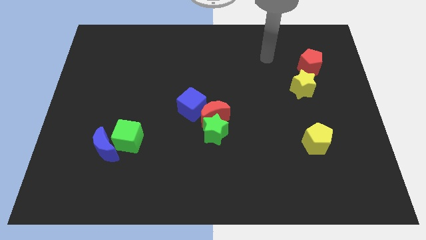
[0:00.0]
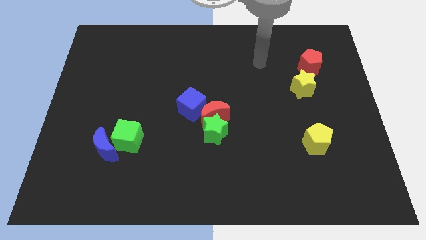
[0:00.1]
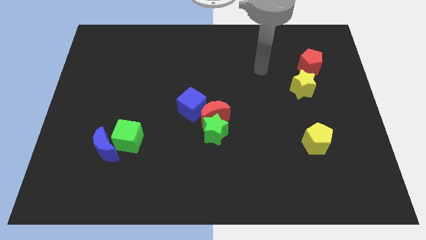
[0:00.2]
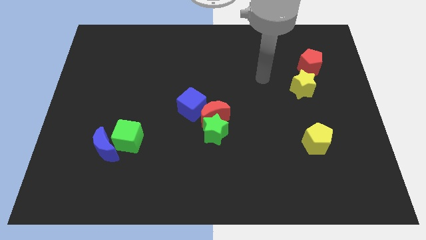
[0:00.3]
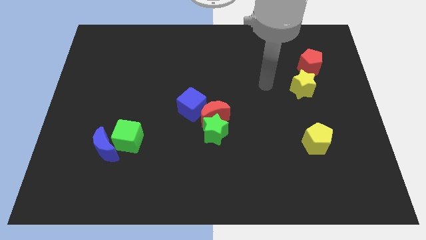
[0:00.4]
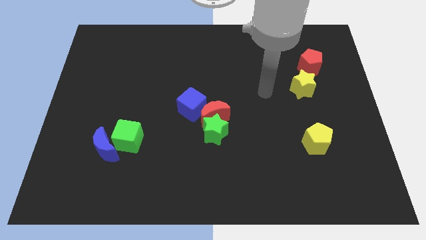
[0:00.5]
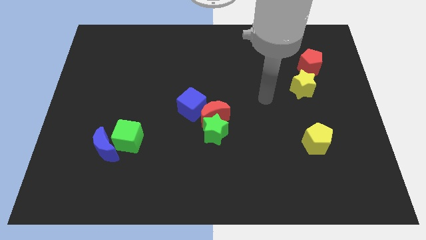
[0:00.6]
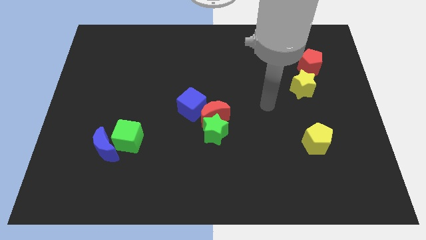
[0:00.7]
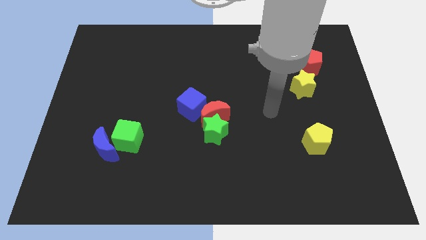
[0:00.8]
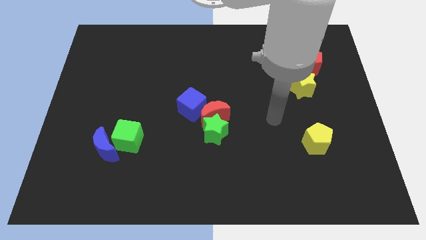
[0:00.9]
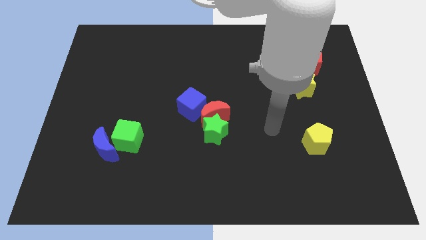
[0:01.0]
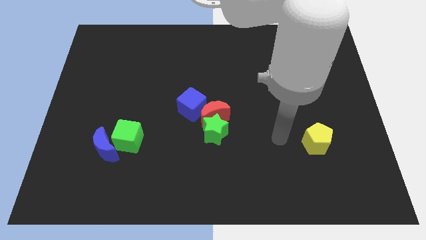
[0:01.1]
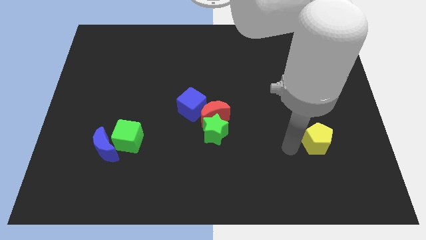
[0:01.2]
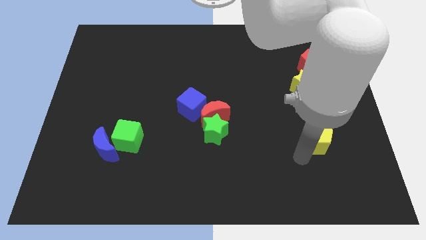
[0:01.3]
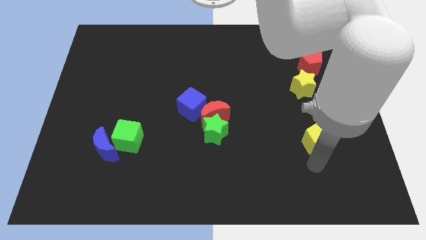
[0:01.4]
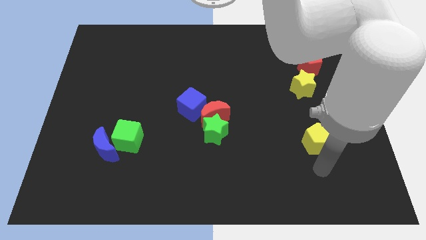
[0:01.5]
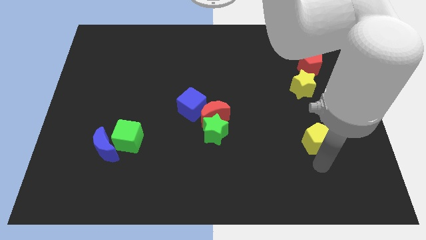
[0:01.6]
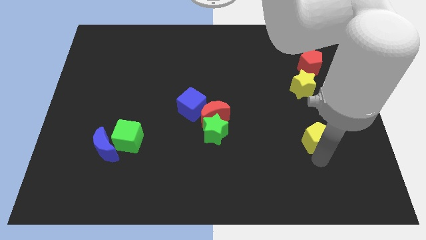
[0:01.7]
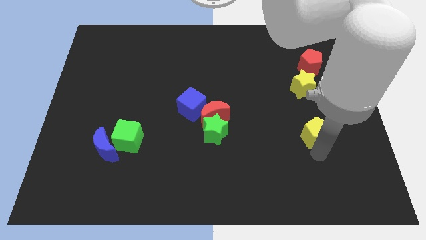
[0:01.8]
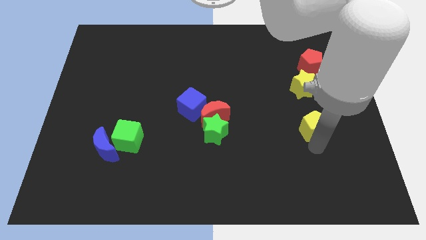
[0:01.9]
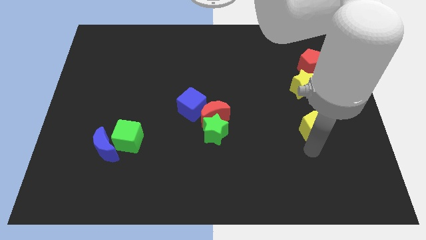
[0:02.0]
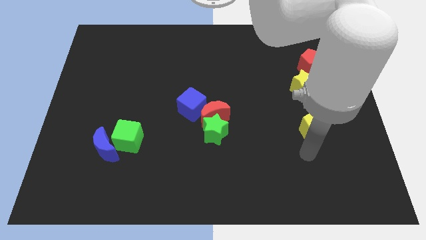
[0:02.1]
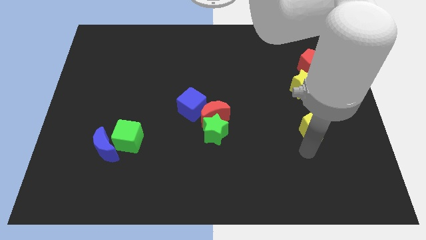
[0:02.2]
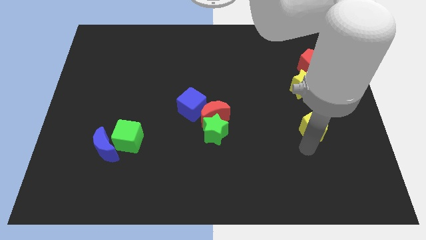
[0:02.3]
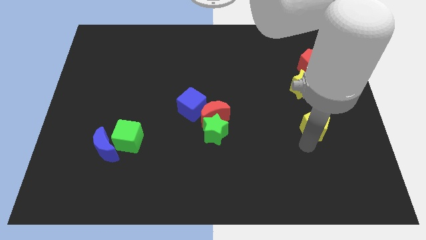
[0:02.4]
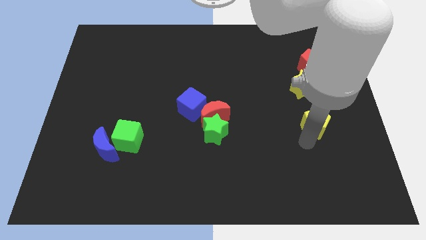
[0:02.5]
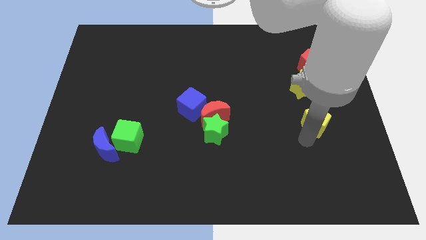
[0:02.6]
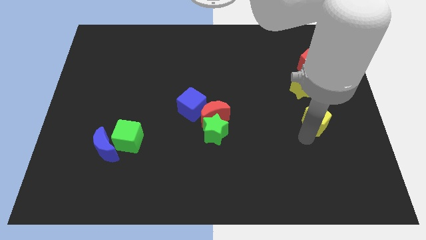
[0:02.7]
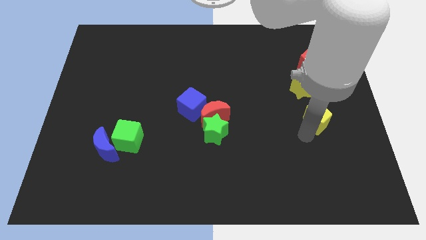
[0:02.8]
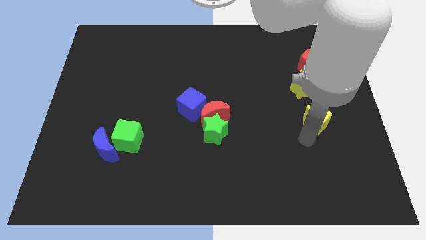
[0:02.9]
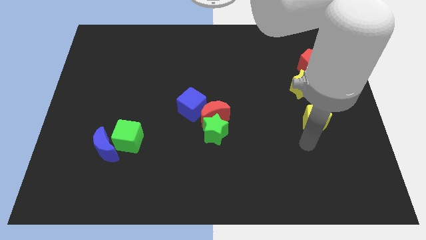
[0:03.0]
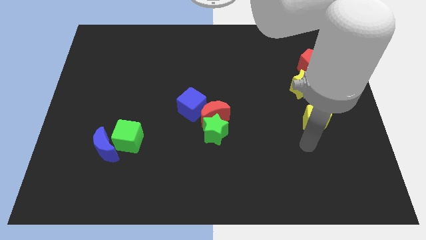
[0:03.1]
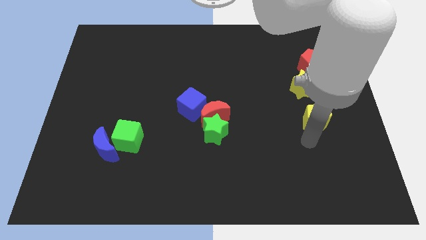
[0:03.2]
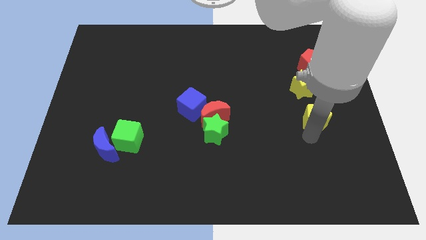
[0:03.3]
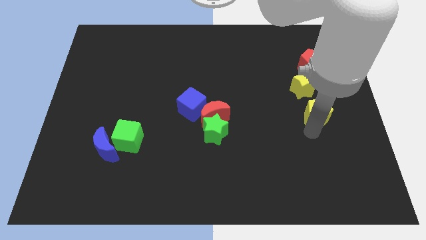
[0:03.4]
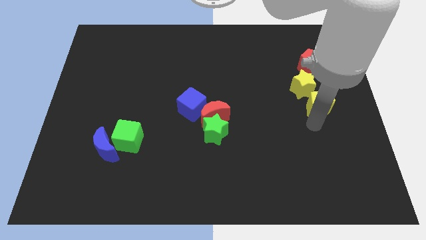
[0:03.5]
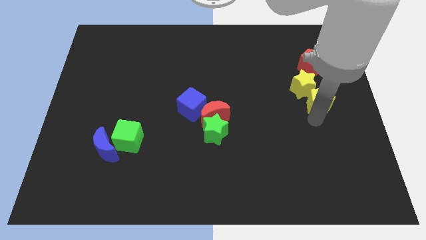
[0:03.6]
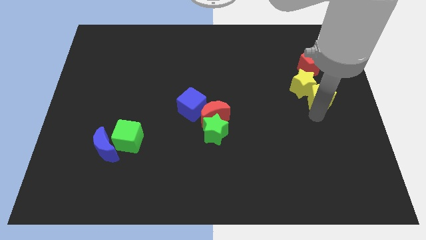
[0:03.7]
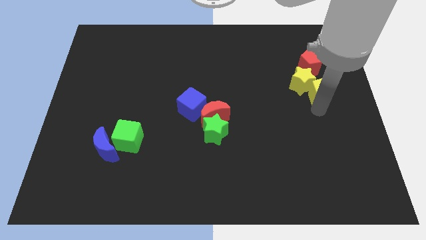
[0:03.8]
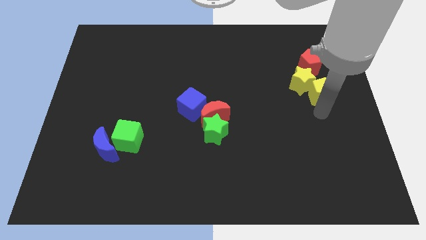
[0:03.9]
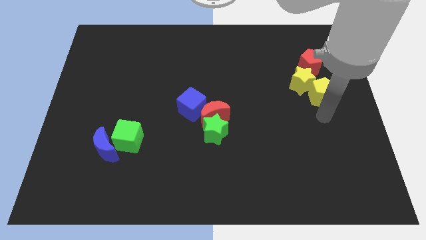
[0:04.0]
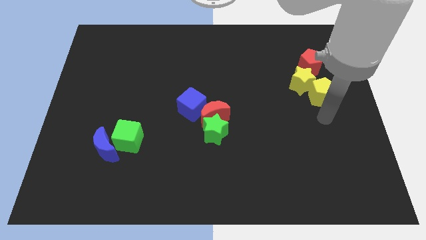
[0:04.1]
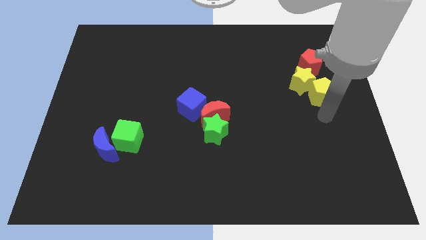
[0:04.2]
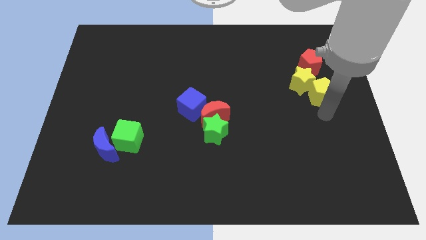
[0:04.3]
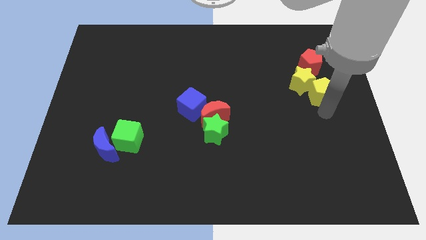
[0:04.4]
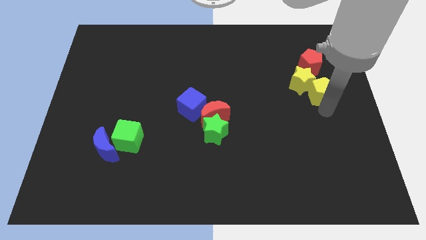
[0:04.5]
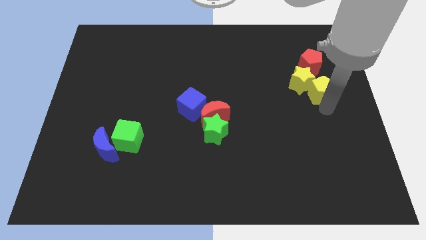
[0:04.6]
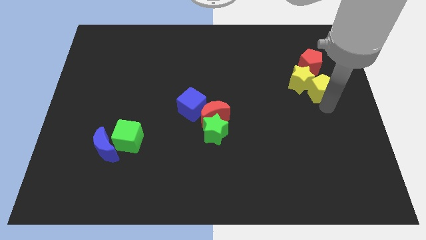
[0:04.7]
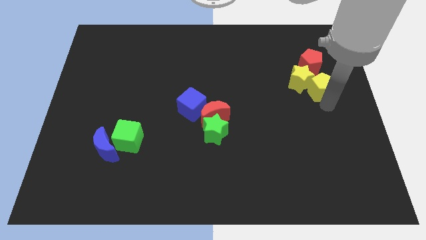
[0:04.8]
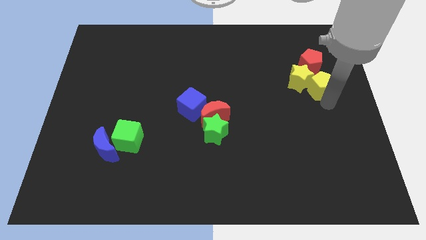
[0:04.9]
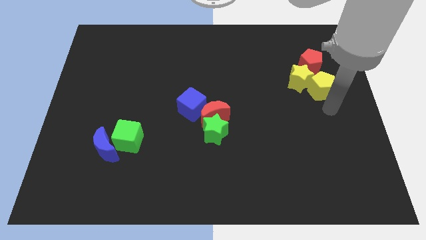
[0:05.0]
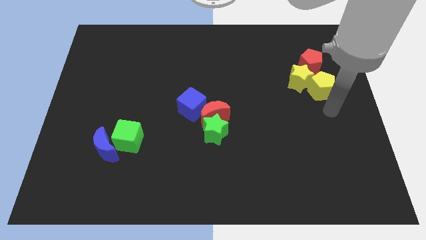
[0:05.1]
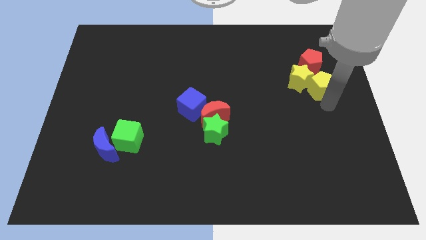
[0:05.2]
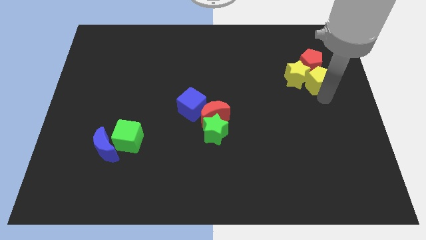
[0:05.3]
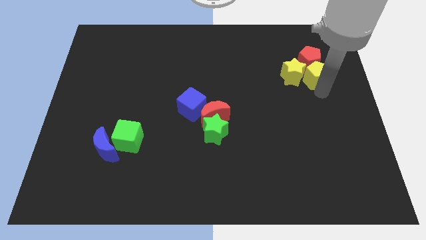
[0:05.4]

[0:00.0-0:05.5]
slide the yellow pentagon next to the red pentagon

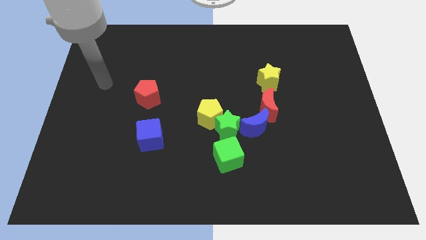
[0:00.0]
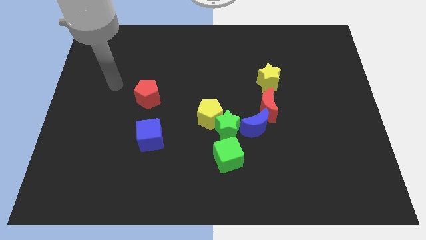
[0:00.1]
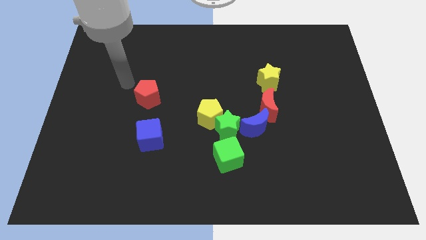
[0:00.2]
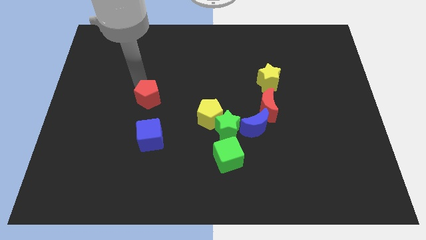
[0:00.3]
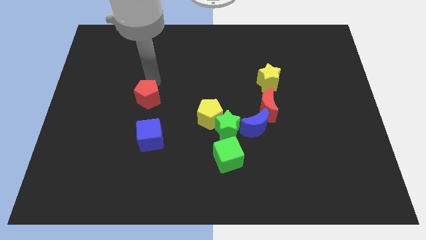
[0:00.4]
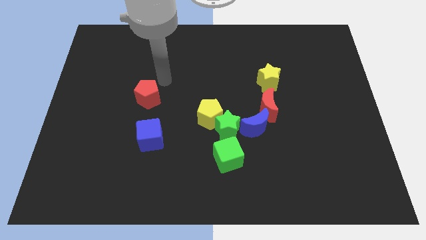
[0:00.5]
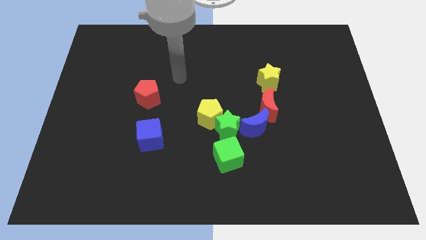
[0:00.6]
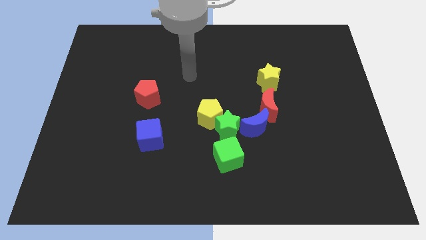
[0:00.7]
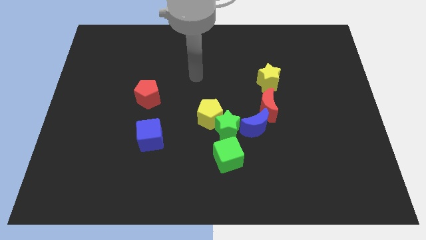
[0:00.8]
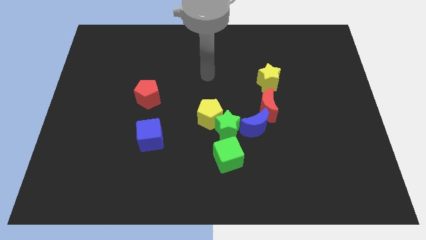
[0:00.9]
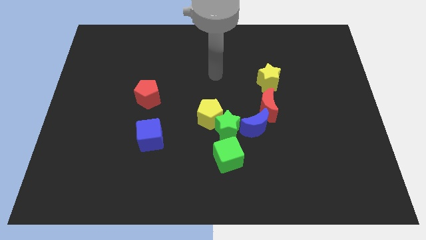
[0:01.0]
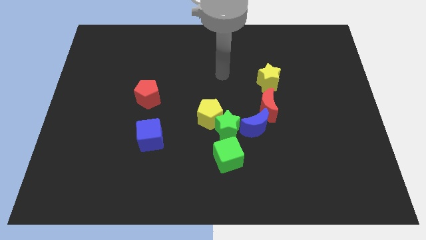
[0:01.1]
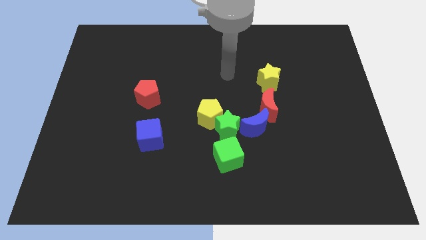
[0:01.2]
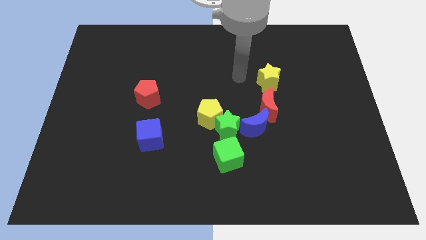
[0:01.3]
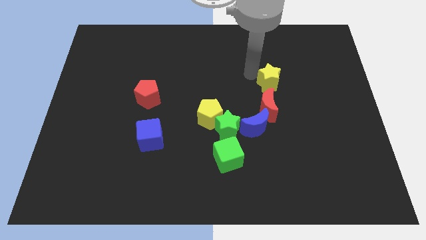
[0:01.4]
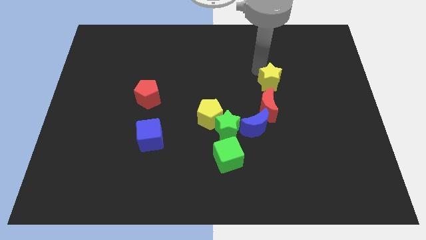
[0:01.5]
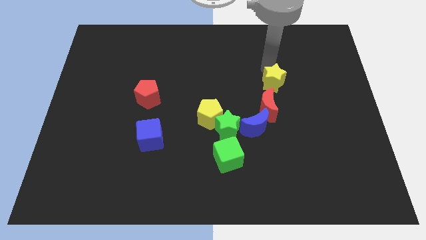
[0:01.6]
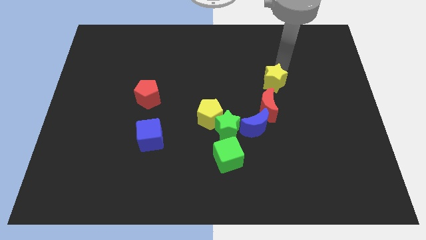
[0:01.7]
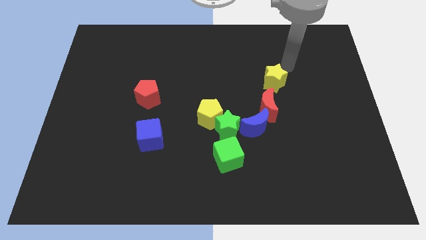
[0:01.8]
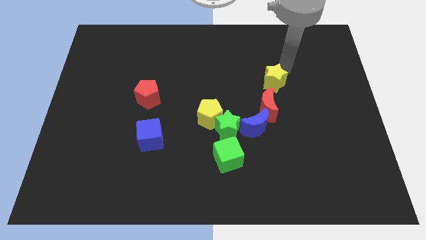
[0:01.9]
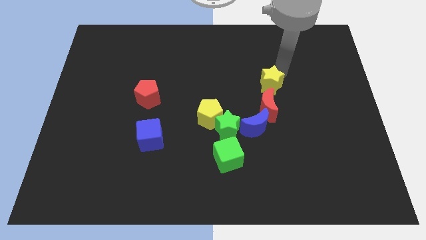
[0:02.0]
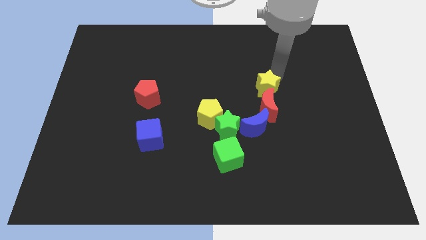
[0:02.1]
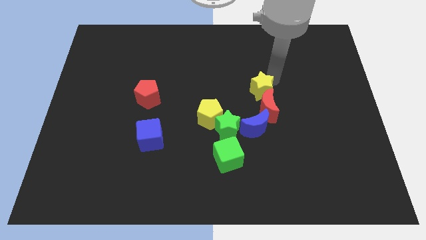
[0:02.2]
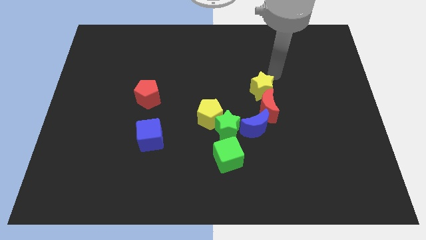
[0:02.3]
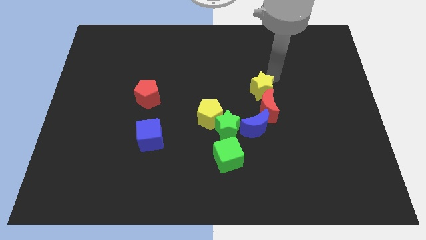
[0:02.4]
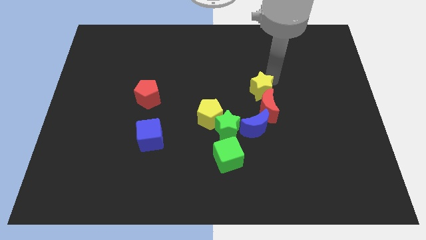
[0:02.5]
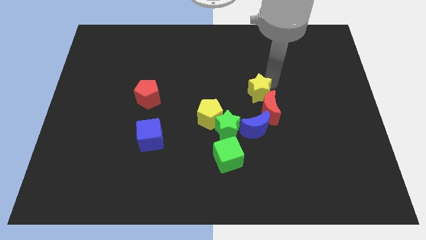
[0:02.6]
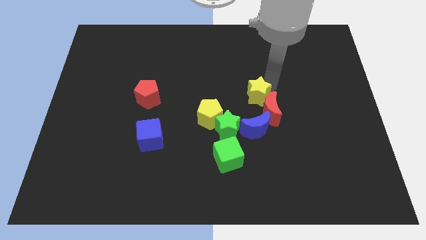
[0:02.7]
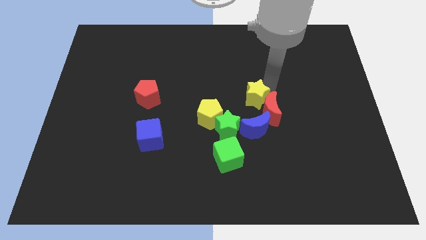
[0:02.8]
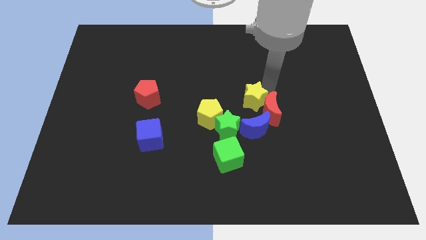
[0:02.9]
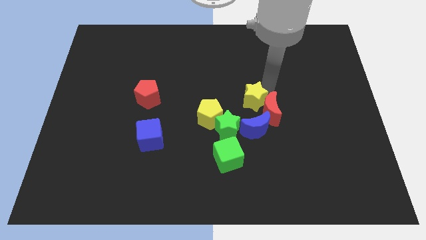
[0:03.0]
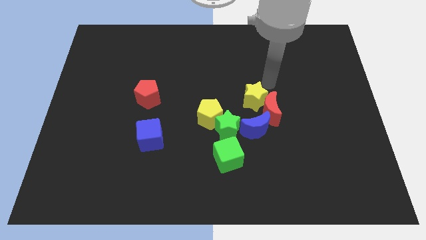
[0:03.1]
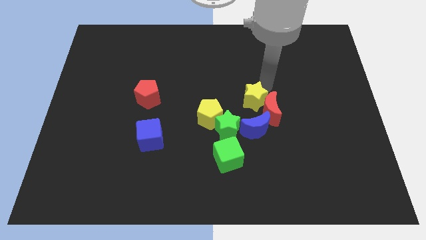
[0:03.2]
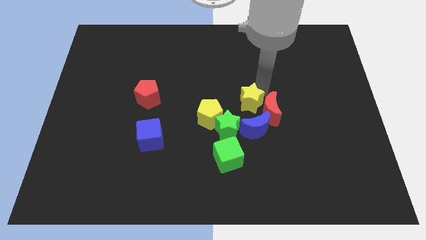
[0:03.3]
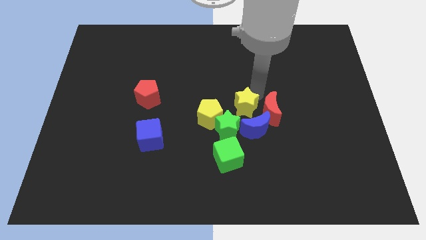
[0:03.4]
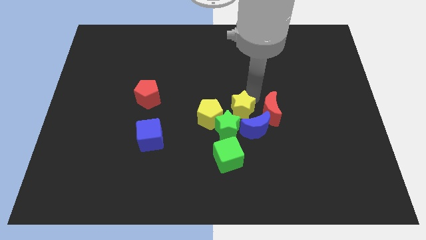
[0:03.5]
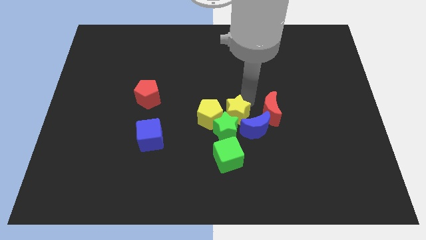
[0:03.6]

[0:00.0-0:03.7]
put the yellow star towards the green star
